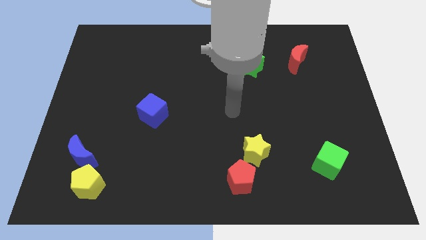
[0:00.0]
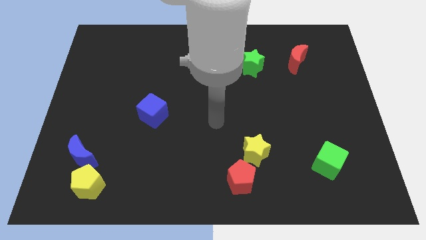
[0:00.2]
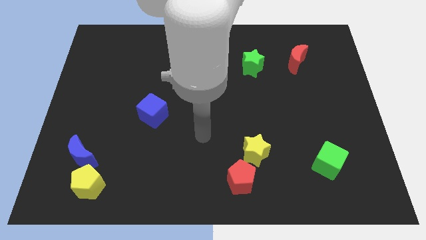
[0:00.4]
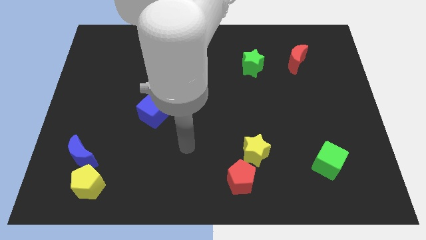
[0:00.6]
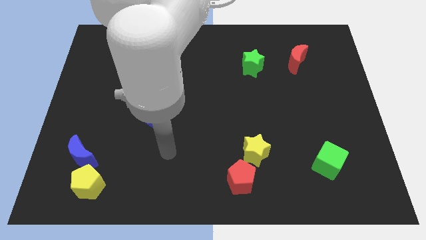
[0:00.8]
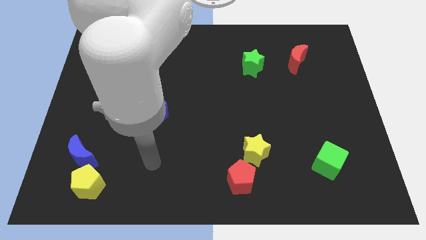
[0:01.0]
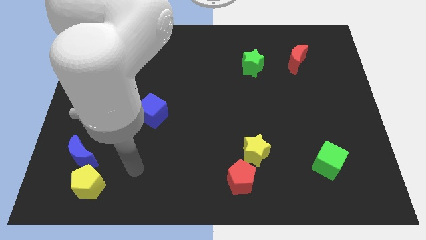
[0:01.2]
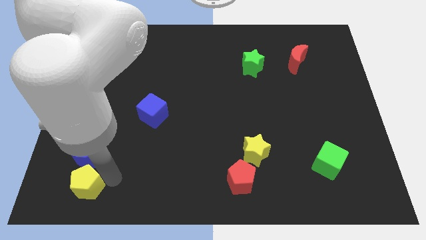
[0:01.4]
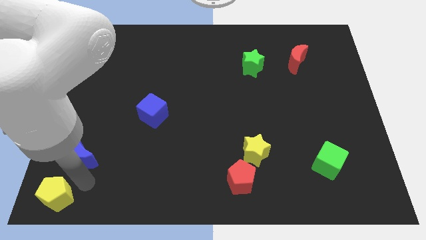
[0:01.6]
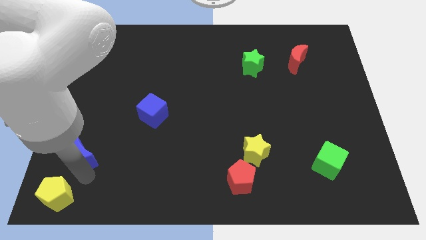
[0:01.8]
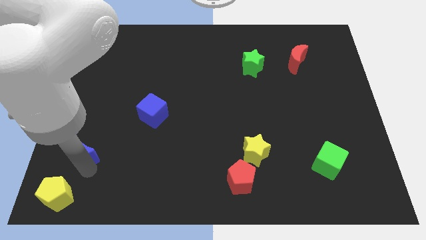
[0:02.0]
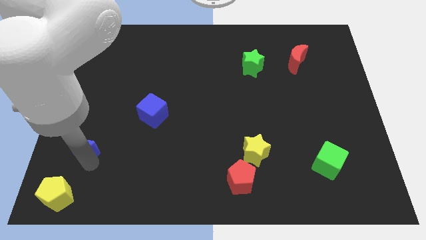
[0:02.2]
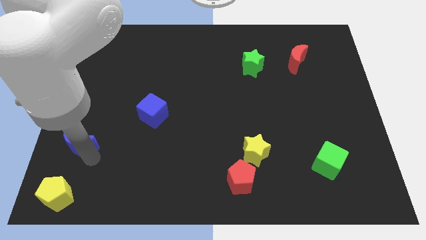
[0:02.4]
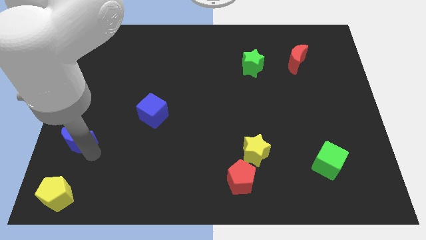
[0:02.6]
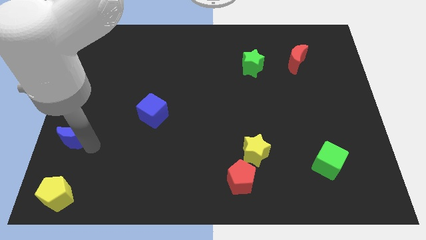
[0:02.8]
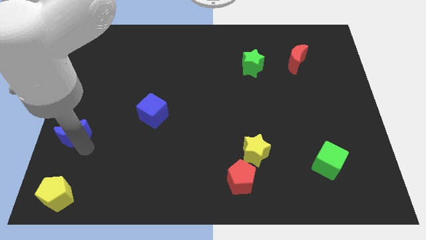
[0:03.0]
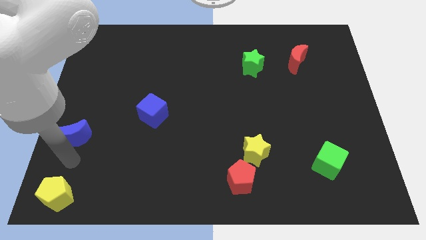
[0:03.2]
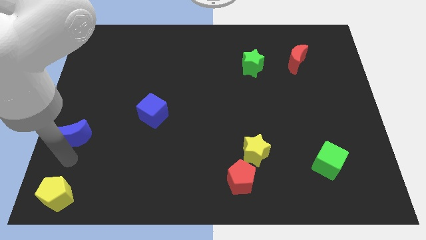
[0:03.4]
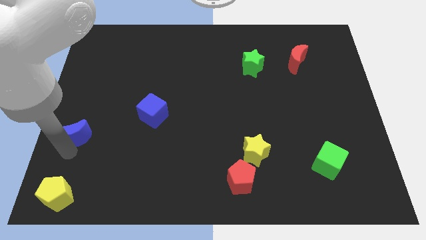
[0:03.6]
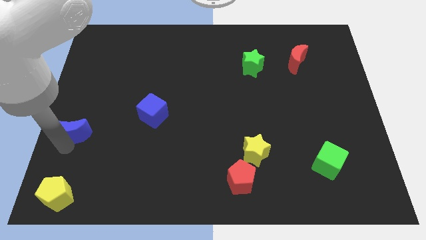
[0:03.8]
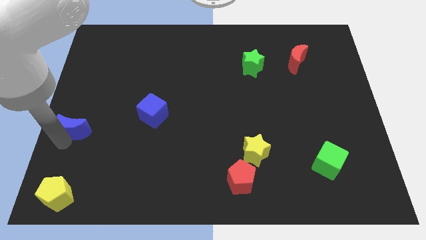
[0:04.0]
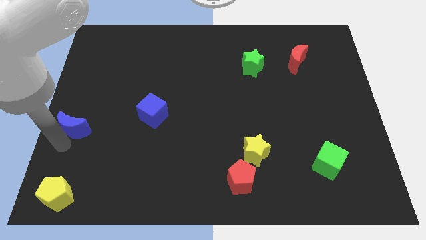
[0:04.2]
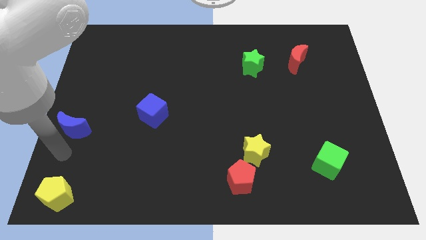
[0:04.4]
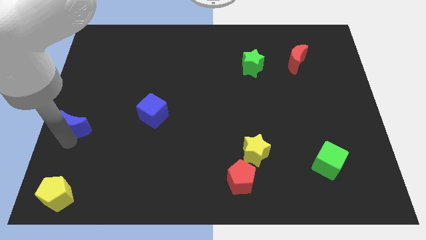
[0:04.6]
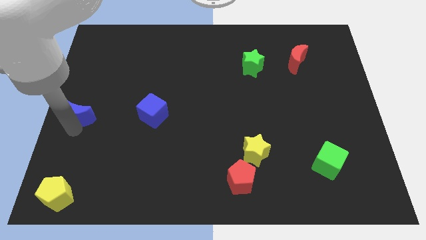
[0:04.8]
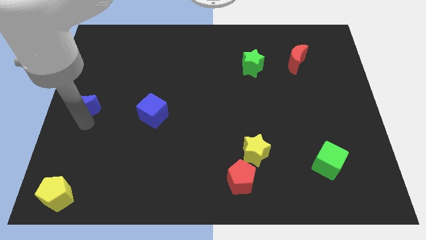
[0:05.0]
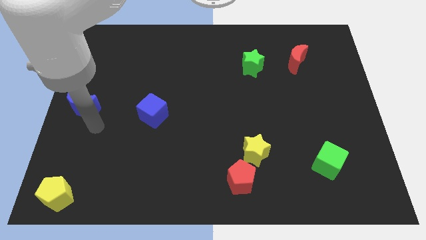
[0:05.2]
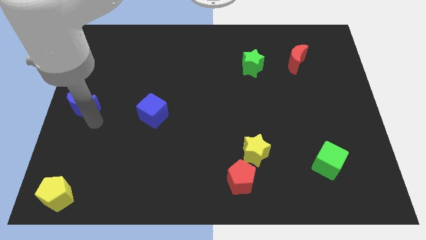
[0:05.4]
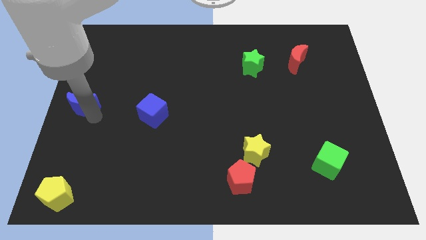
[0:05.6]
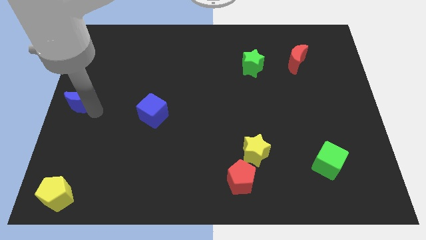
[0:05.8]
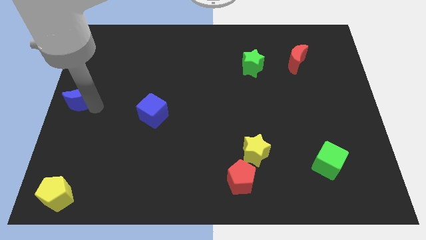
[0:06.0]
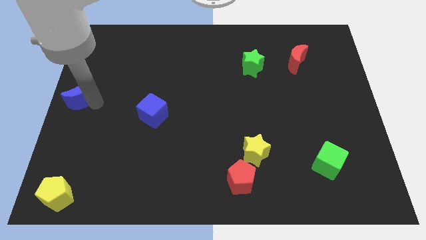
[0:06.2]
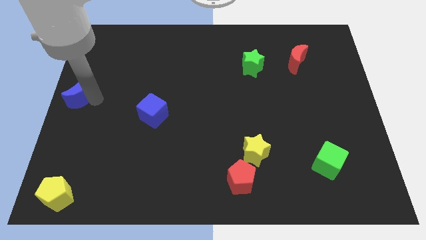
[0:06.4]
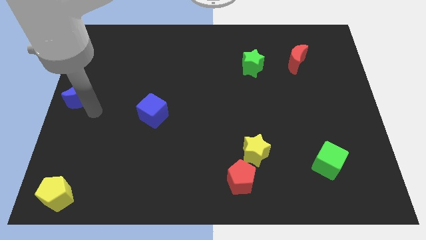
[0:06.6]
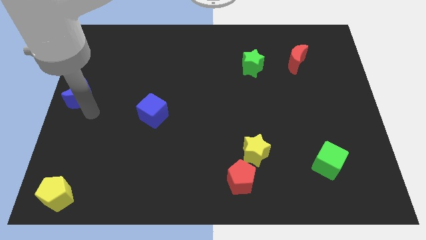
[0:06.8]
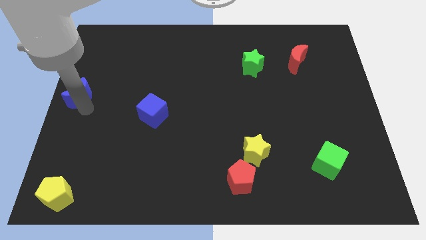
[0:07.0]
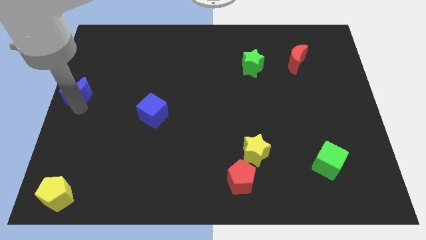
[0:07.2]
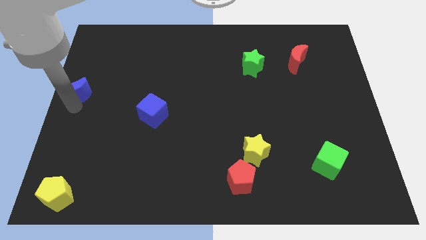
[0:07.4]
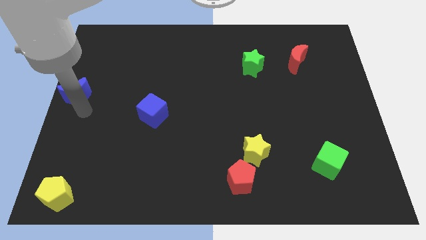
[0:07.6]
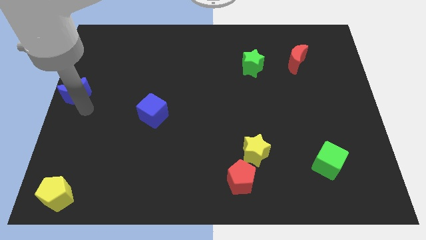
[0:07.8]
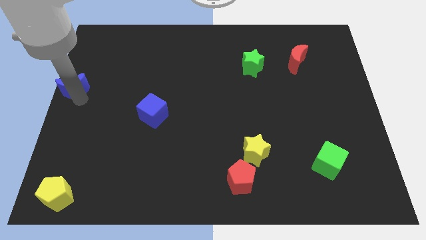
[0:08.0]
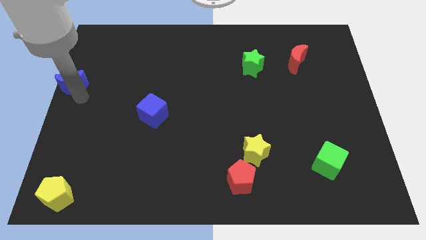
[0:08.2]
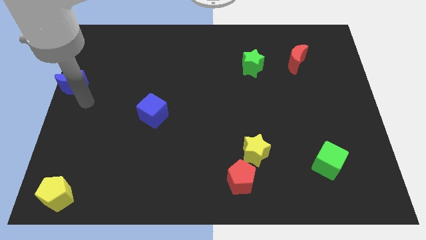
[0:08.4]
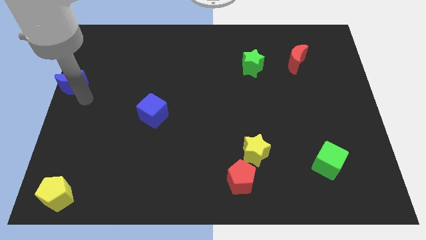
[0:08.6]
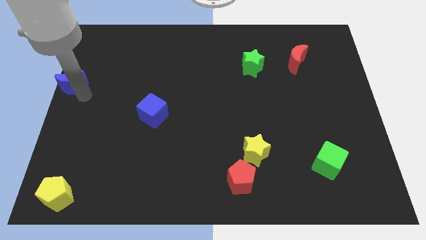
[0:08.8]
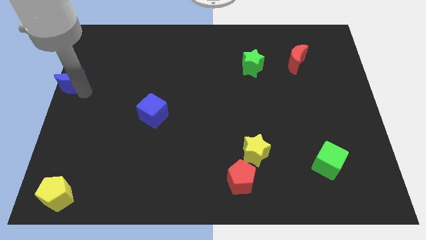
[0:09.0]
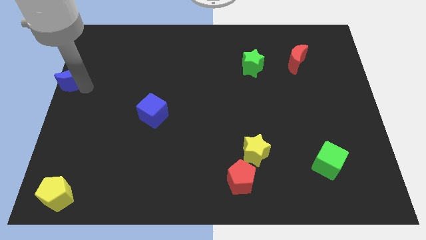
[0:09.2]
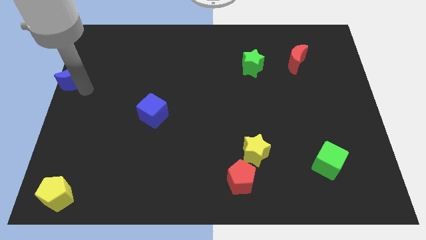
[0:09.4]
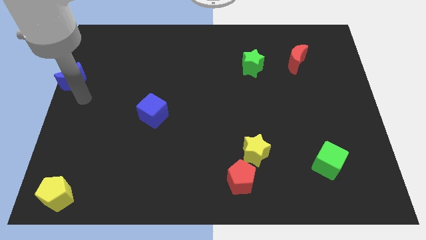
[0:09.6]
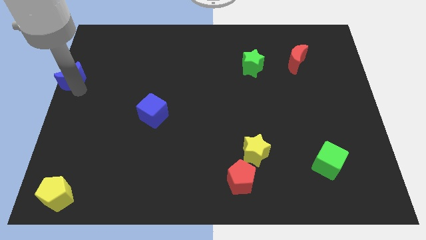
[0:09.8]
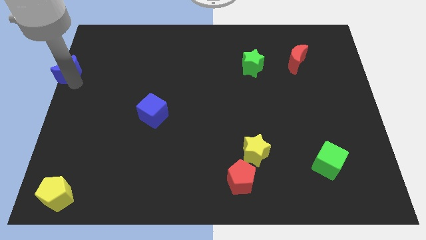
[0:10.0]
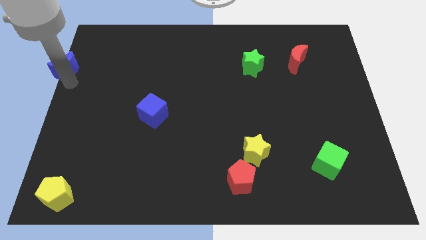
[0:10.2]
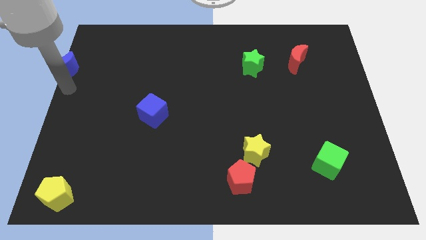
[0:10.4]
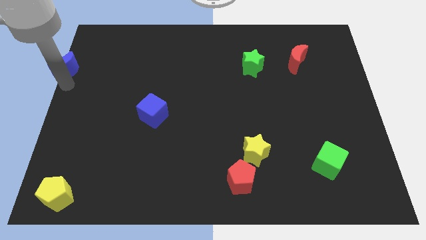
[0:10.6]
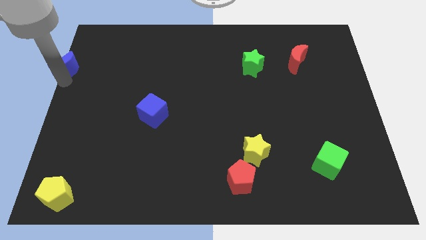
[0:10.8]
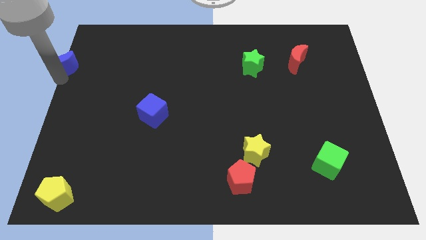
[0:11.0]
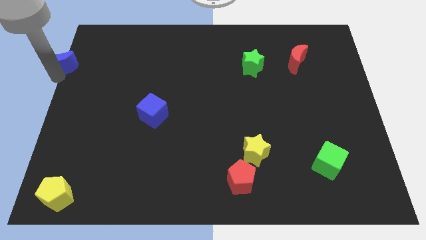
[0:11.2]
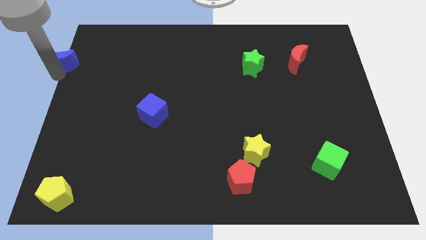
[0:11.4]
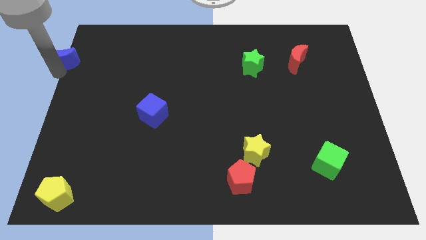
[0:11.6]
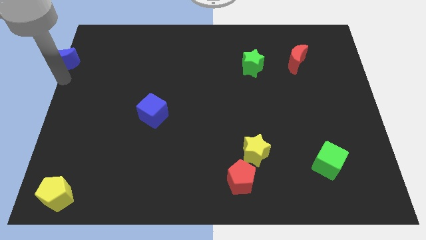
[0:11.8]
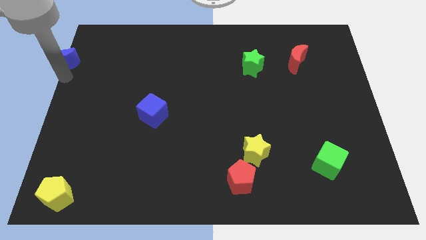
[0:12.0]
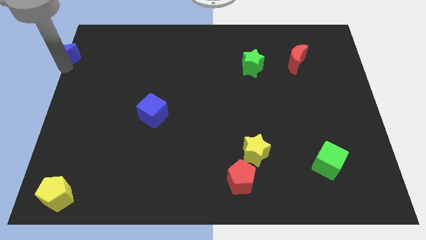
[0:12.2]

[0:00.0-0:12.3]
put the blue moon to the top left of the board

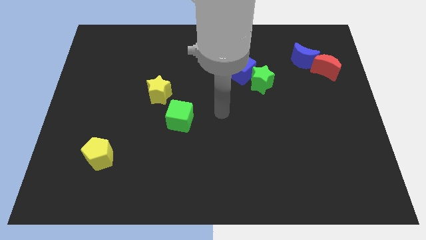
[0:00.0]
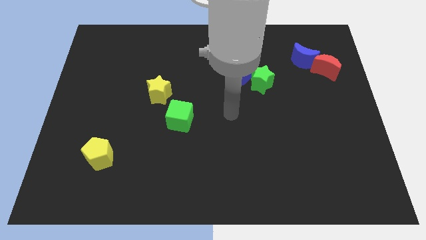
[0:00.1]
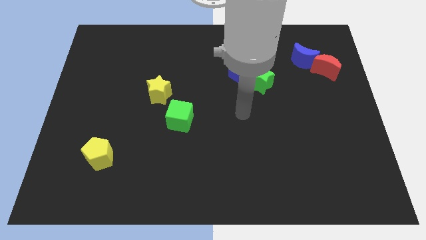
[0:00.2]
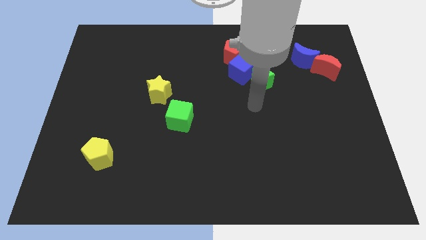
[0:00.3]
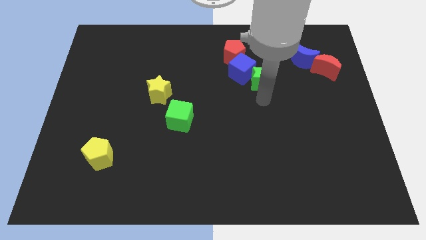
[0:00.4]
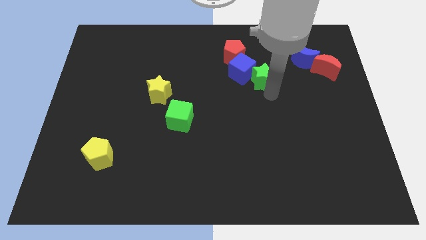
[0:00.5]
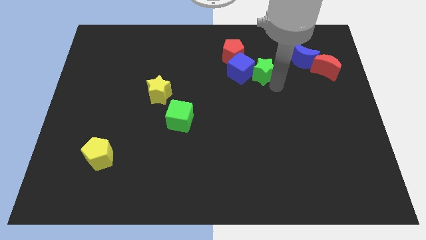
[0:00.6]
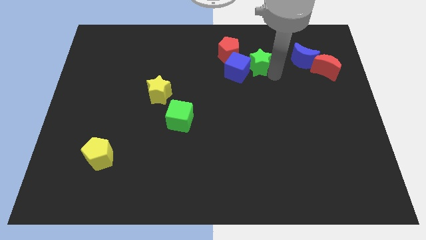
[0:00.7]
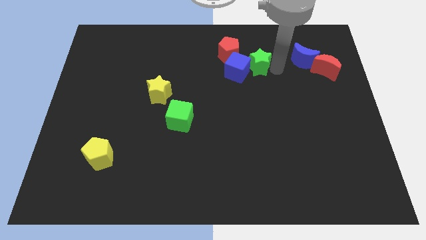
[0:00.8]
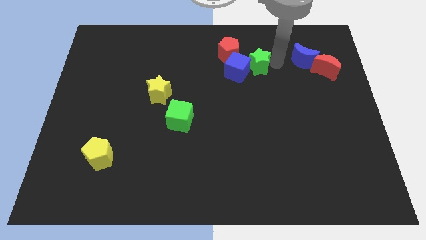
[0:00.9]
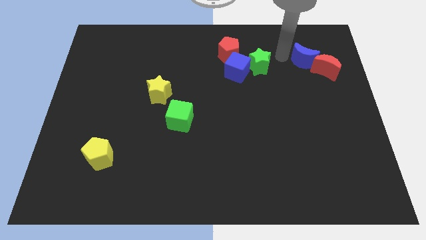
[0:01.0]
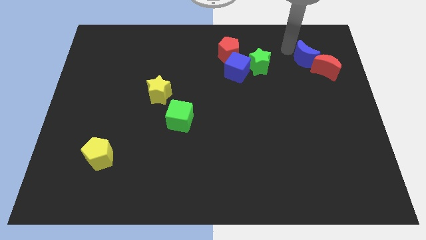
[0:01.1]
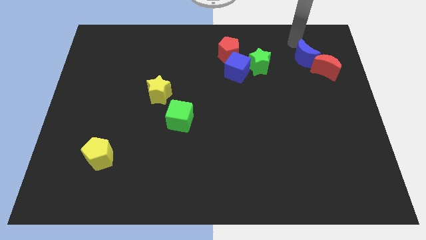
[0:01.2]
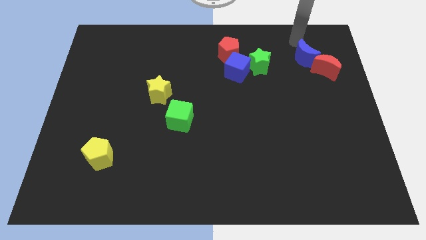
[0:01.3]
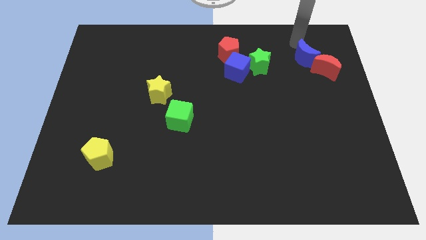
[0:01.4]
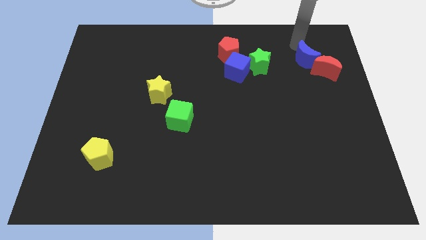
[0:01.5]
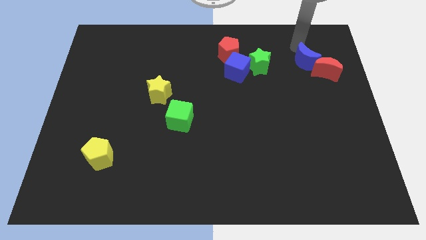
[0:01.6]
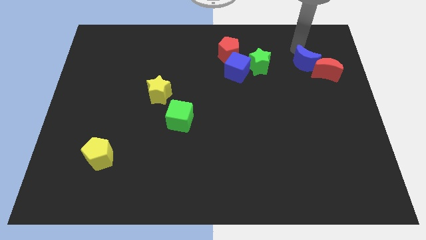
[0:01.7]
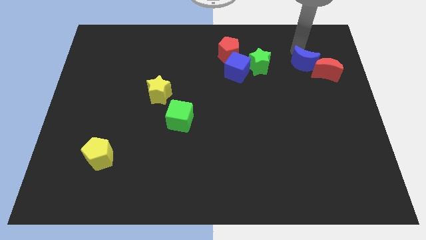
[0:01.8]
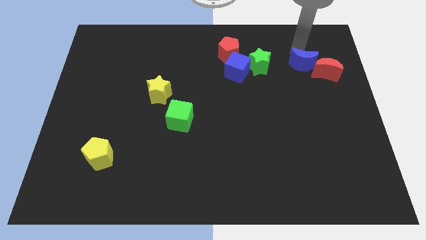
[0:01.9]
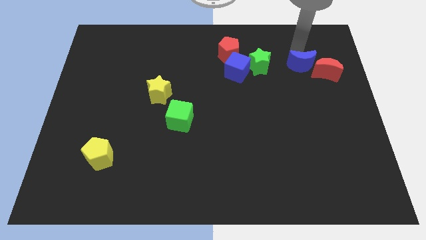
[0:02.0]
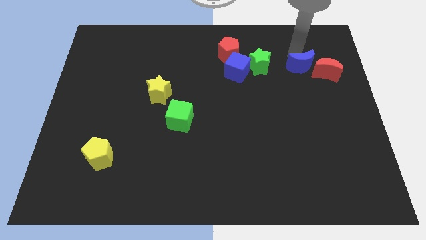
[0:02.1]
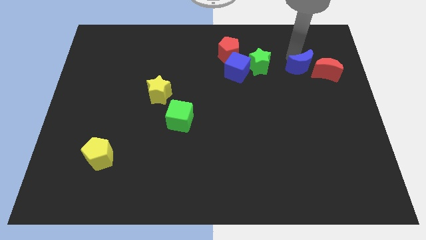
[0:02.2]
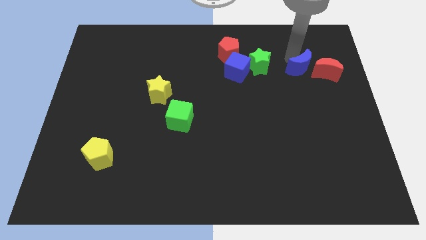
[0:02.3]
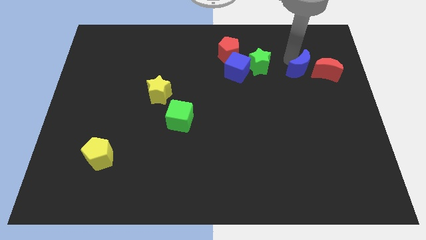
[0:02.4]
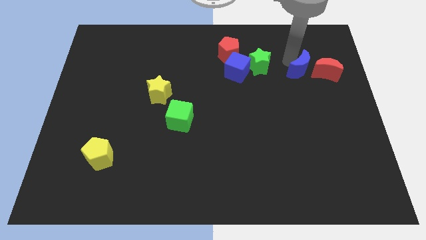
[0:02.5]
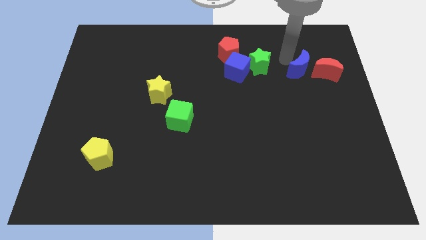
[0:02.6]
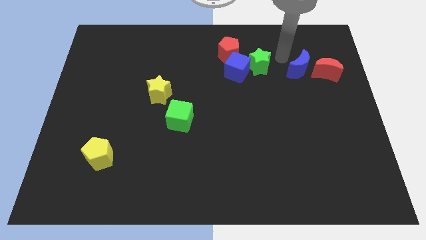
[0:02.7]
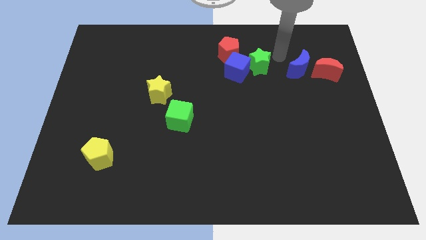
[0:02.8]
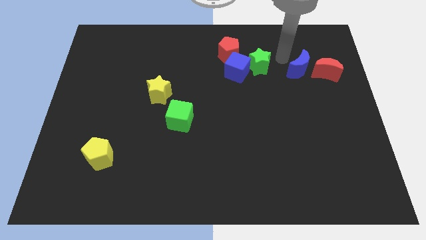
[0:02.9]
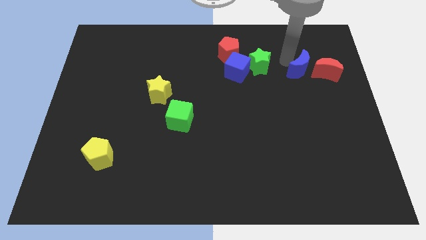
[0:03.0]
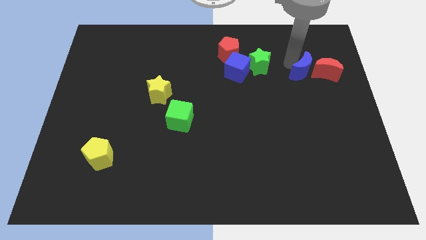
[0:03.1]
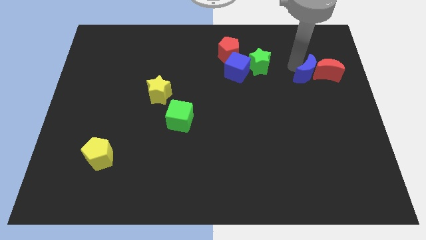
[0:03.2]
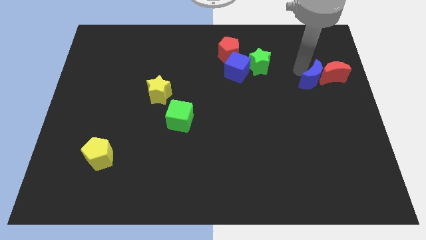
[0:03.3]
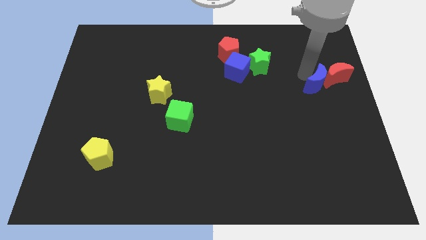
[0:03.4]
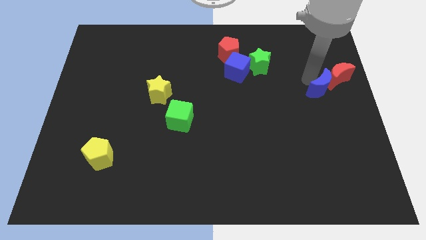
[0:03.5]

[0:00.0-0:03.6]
push the blue moon to the right side of the board
